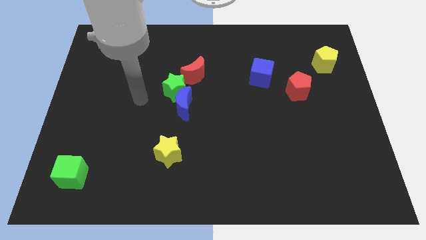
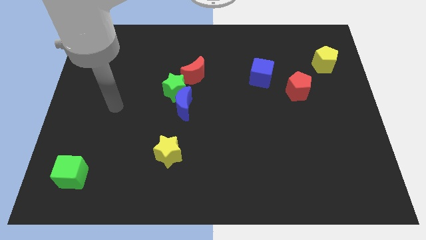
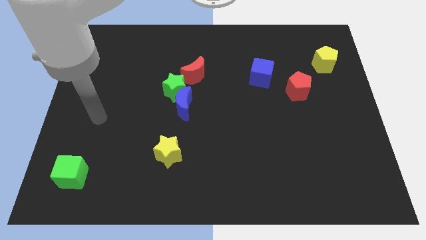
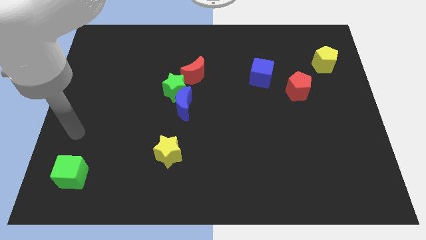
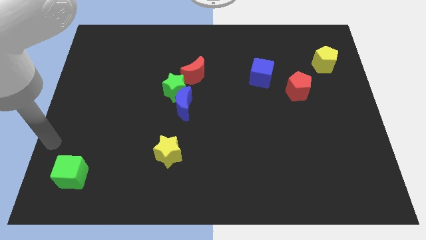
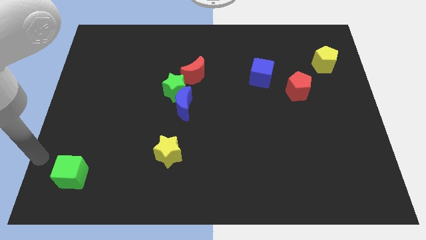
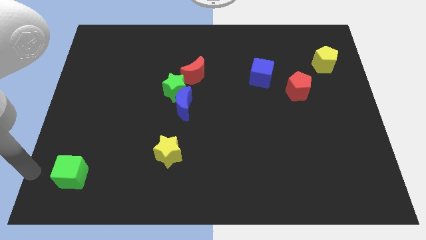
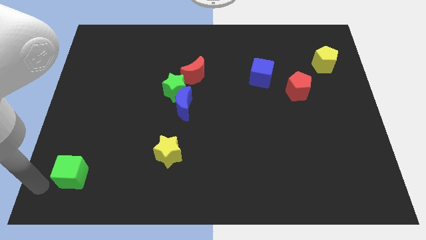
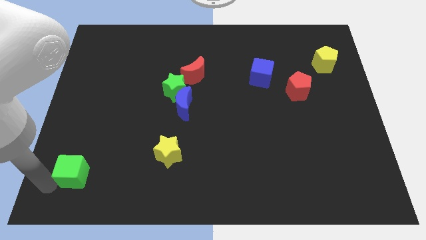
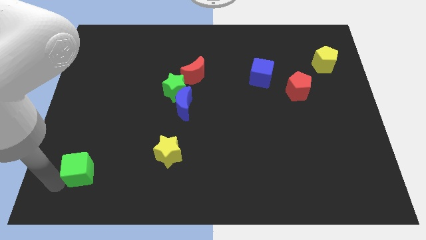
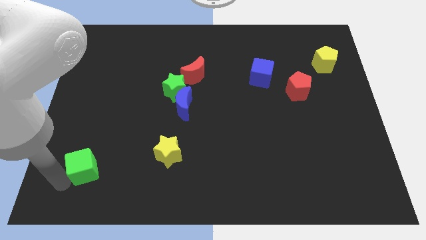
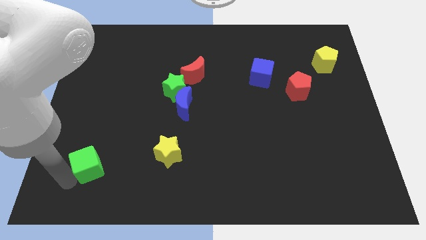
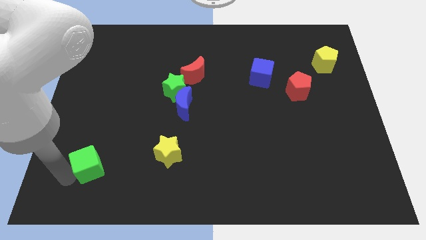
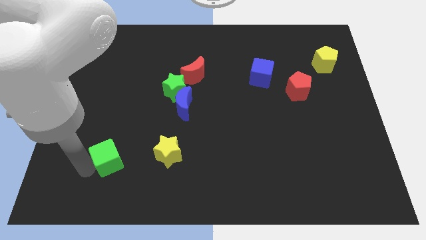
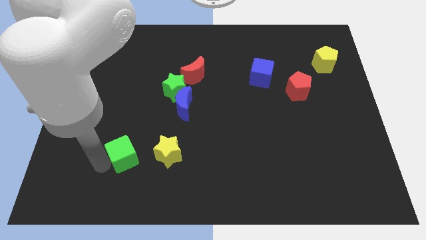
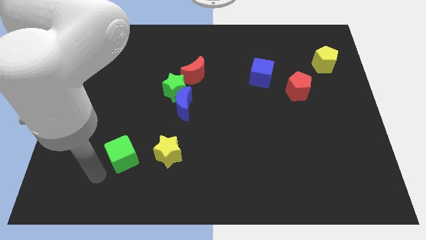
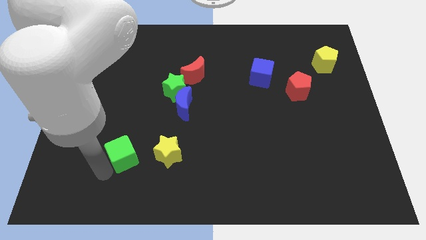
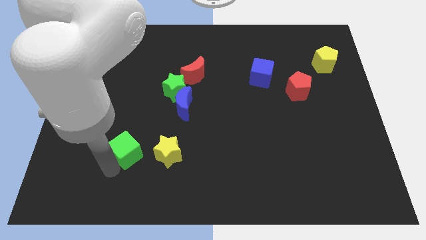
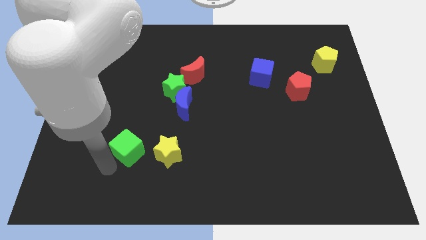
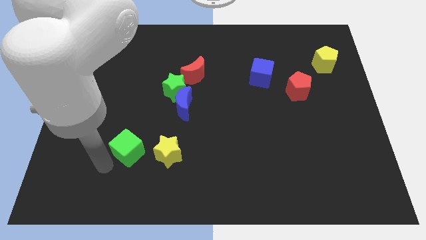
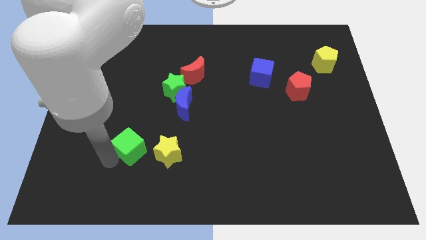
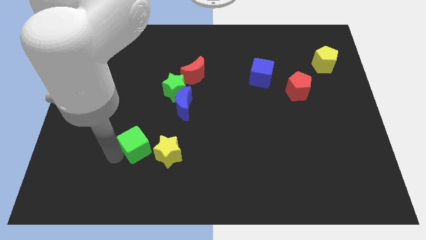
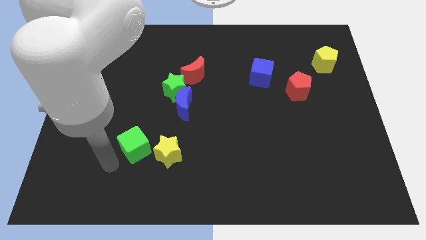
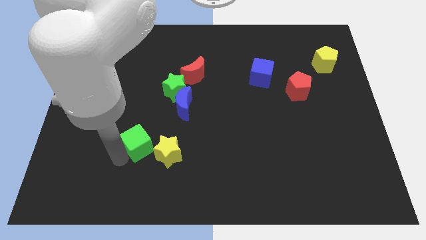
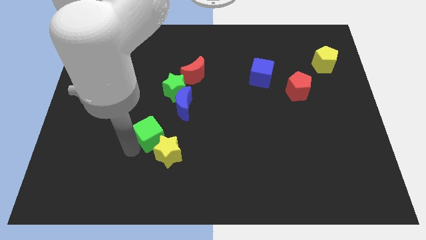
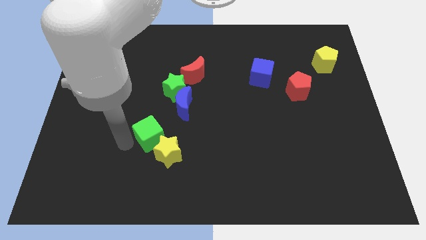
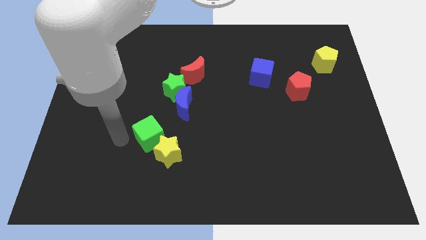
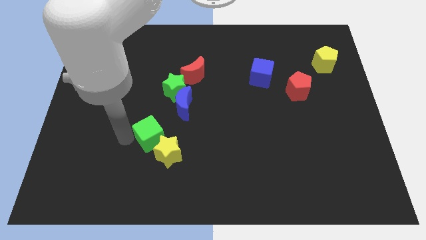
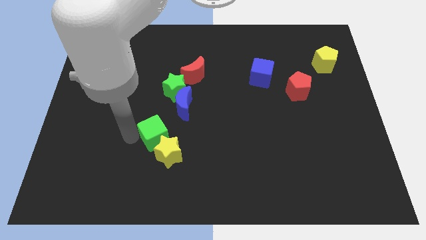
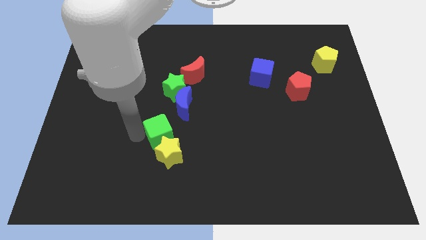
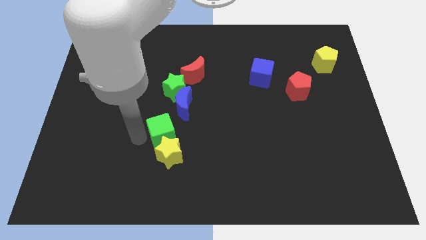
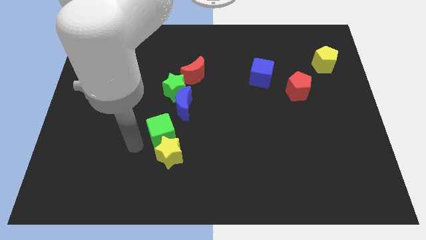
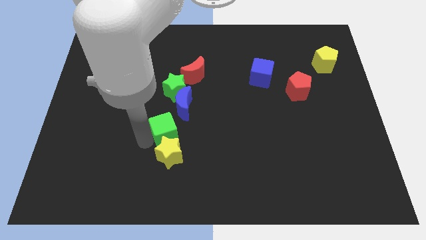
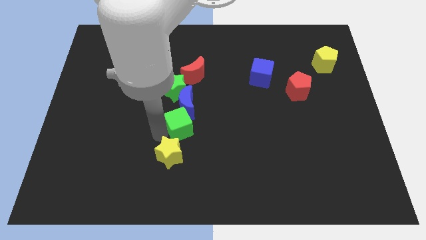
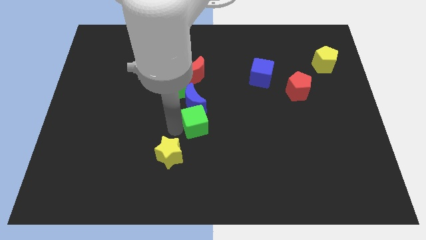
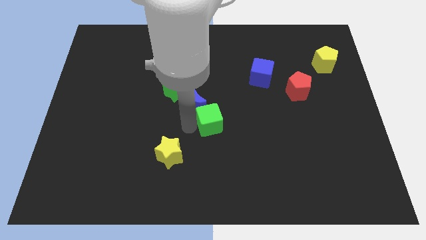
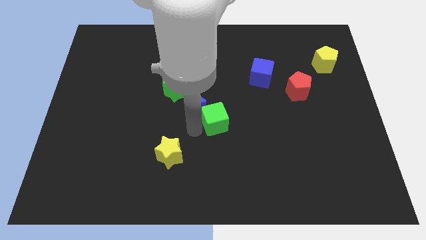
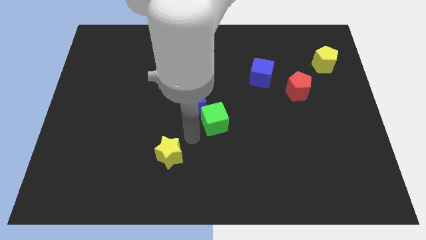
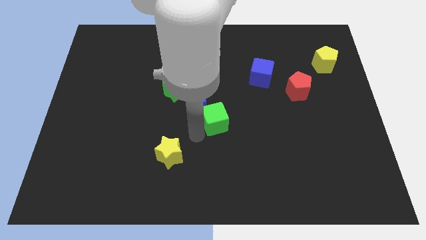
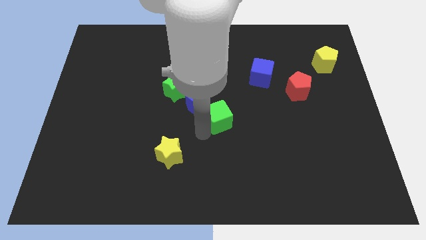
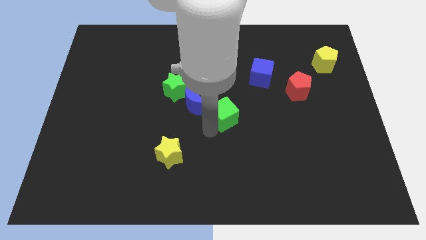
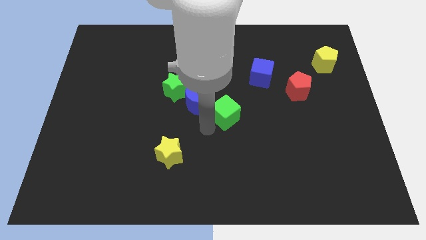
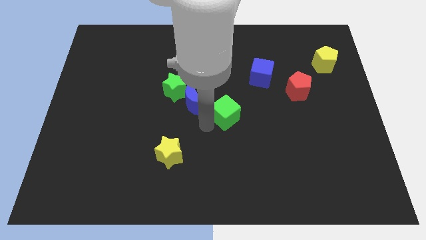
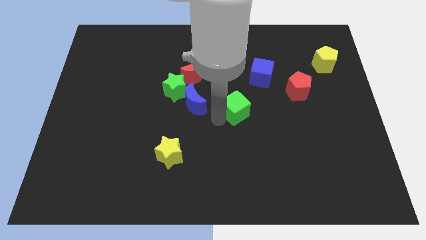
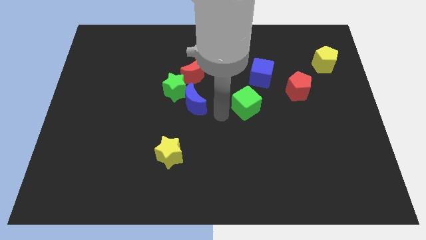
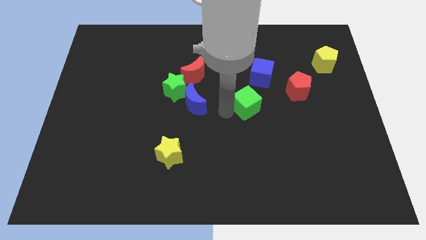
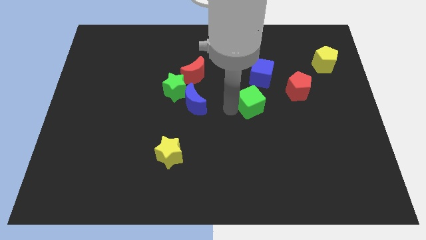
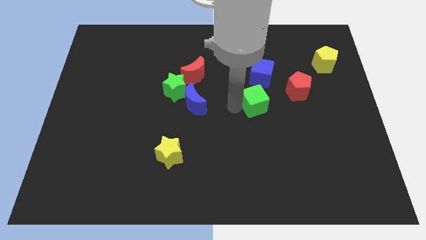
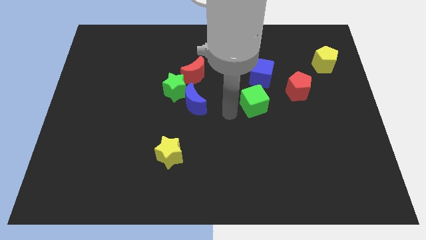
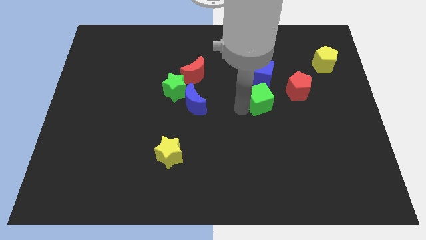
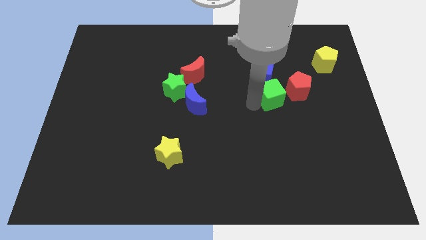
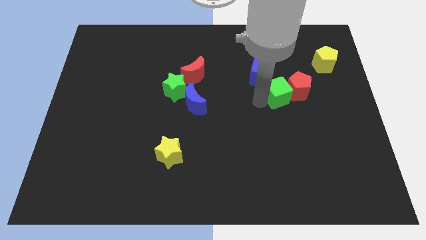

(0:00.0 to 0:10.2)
slide the green cube close to the red pentagon

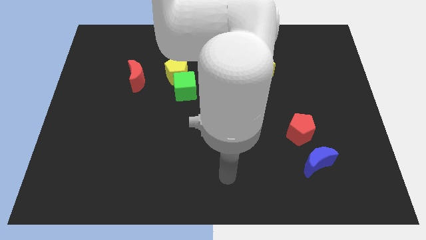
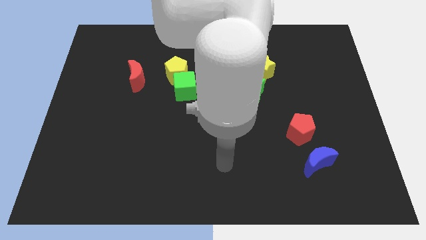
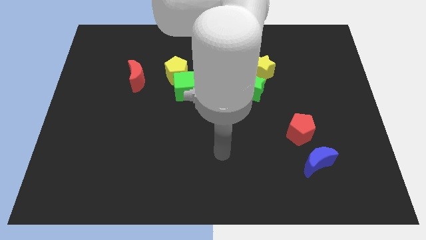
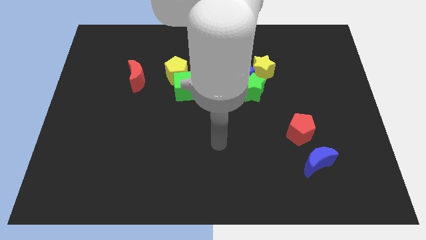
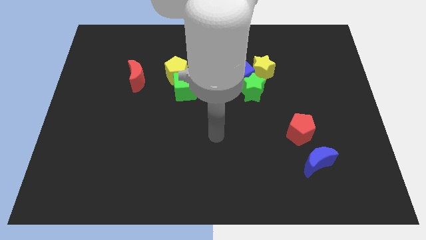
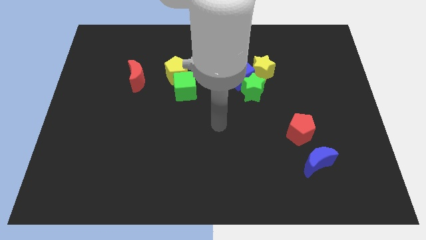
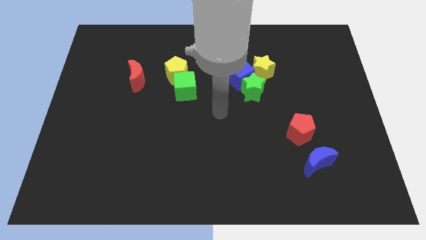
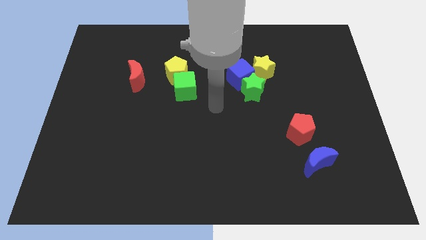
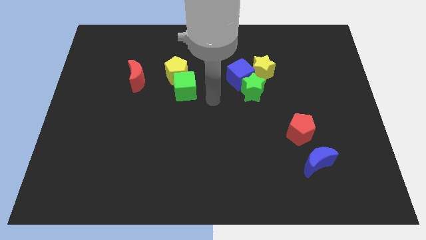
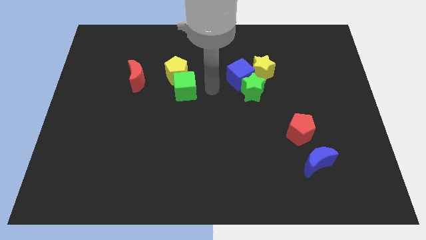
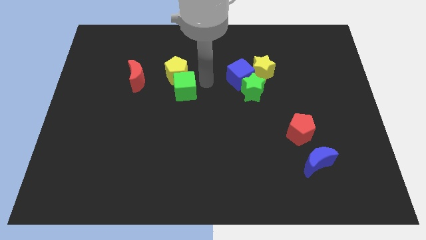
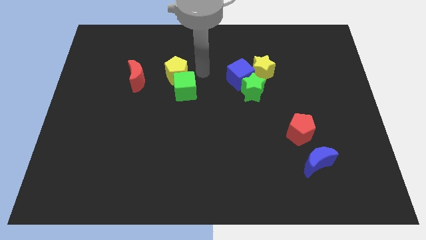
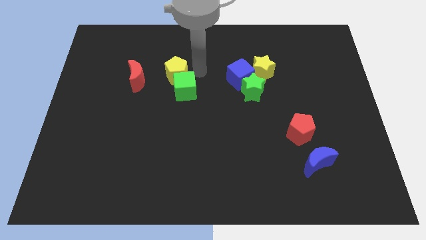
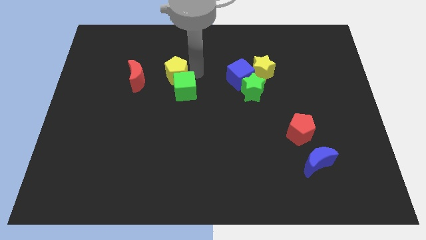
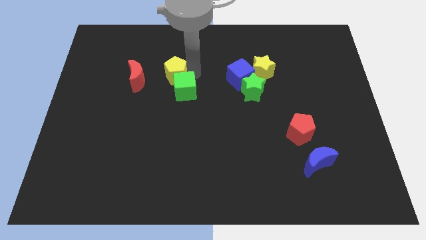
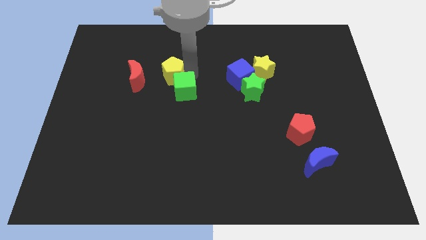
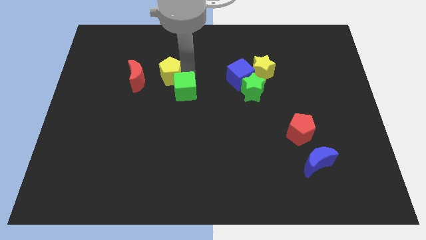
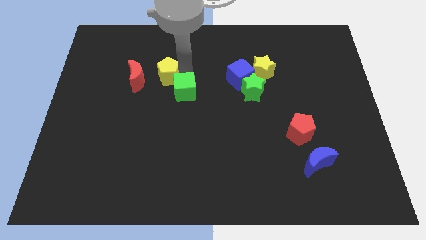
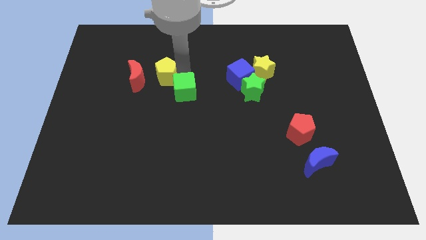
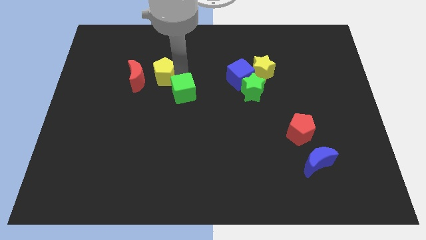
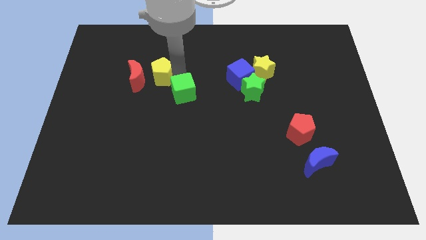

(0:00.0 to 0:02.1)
push the yellow pentagon to the red moon

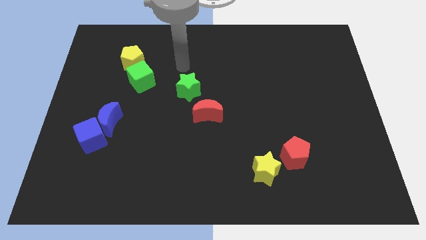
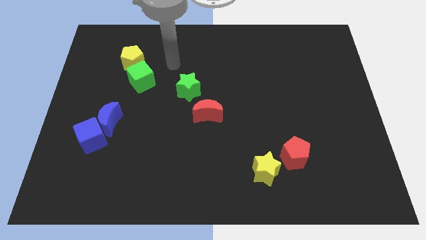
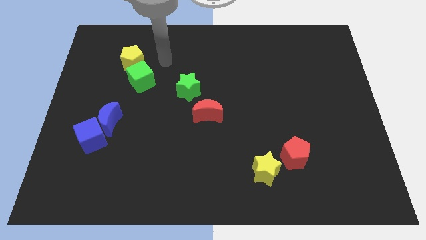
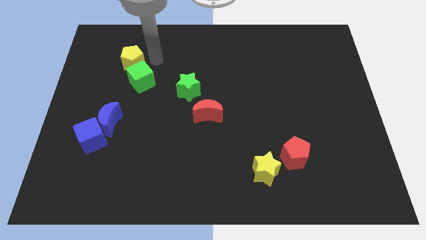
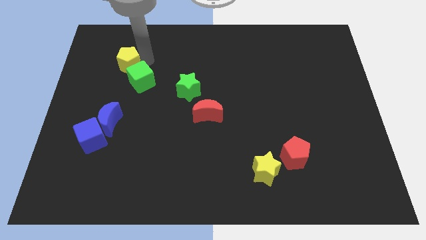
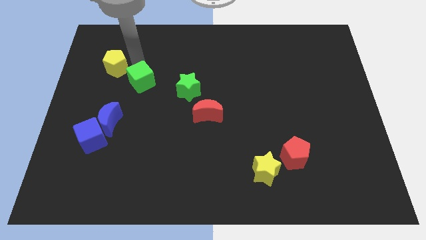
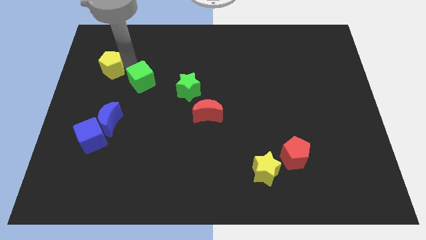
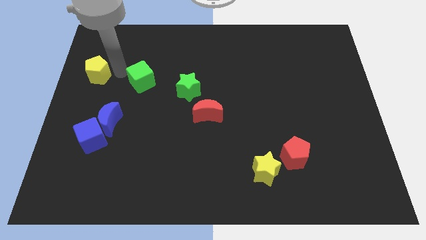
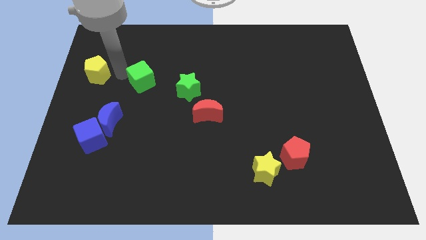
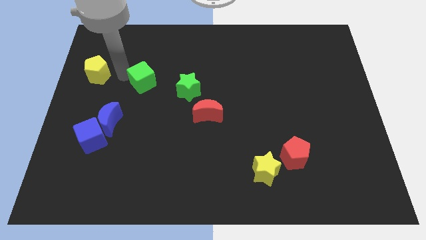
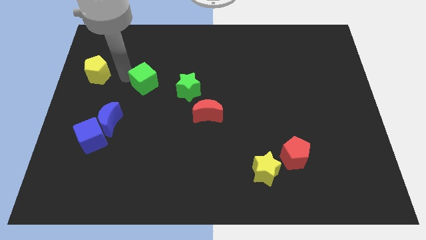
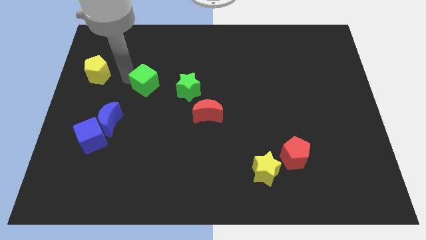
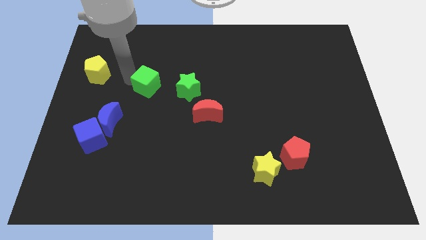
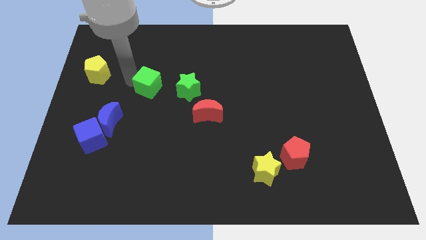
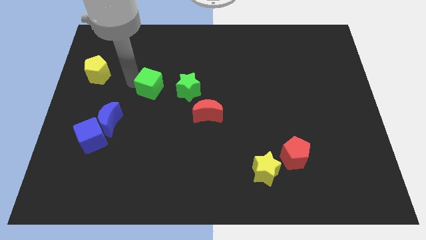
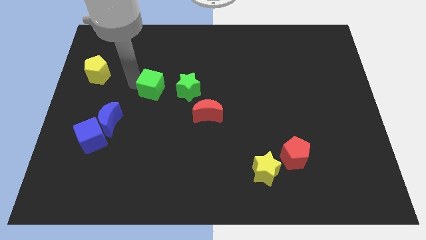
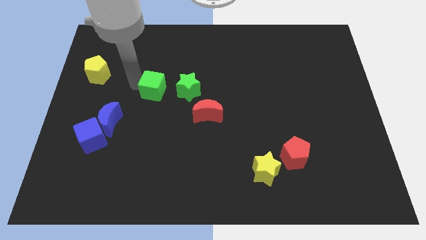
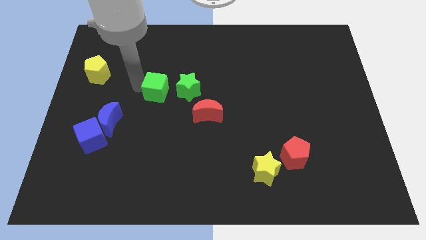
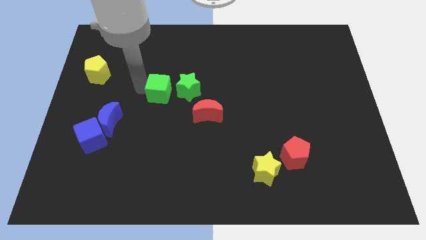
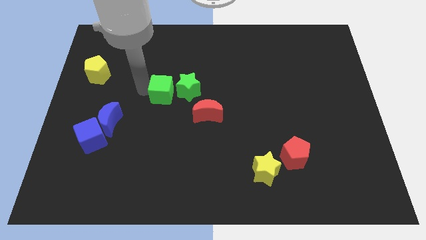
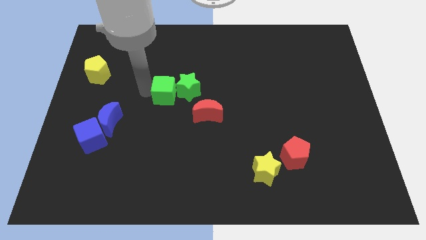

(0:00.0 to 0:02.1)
put the green cube close to the green star
